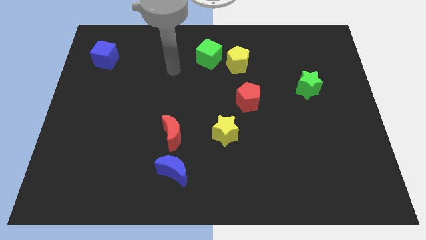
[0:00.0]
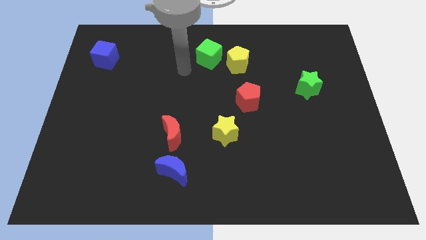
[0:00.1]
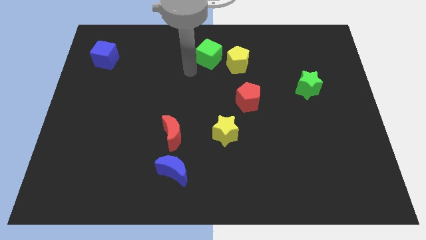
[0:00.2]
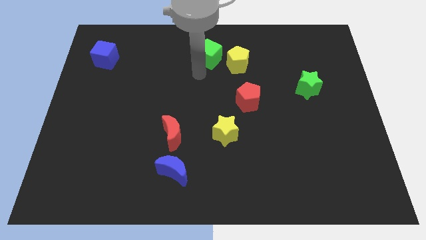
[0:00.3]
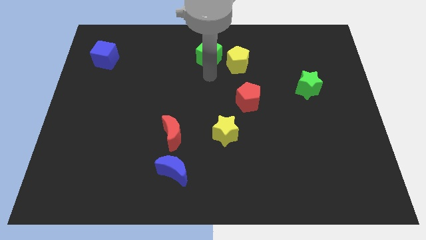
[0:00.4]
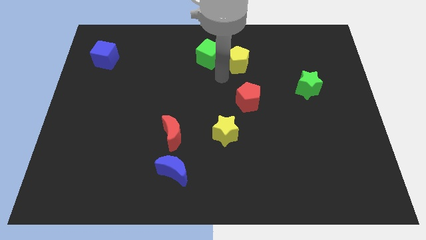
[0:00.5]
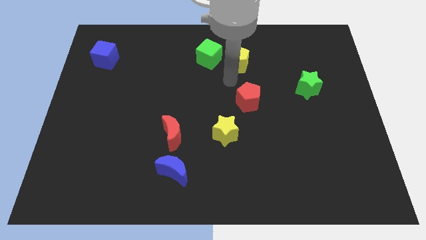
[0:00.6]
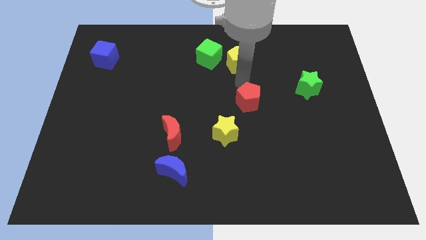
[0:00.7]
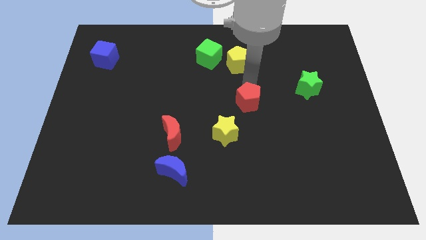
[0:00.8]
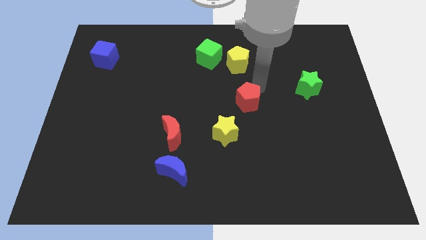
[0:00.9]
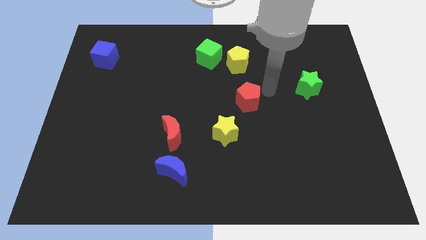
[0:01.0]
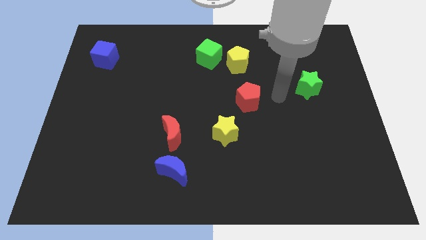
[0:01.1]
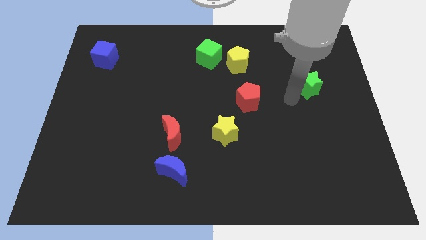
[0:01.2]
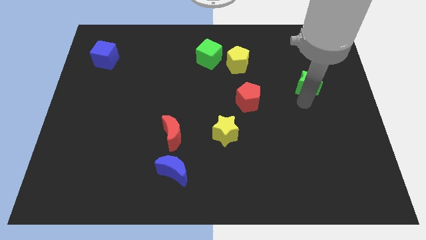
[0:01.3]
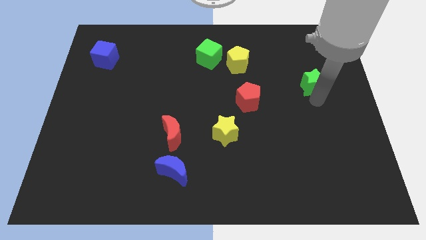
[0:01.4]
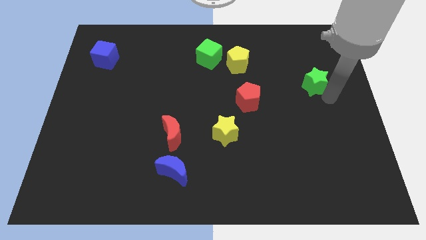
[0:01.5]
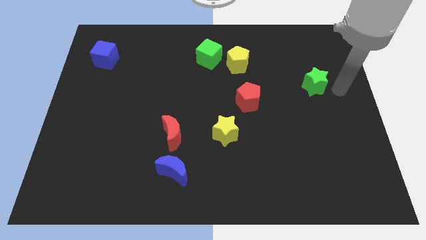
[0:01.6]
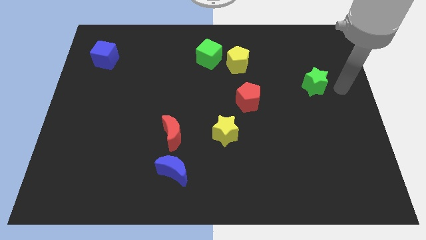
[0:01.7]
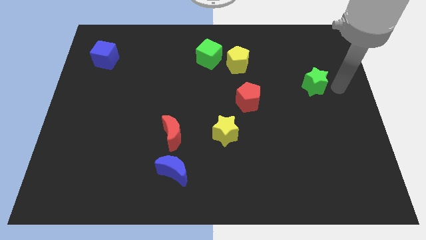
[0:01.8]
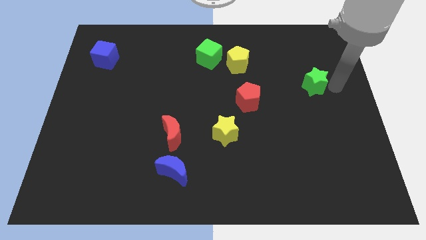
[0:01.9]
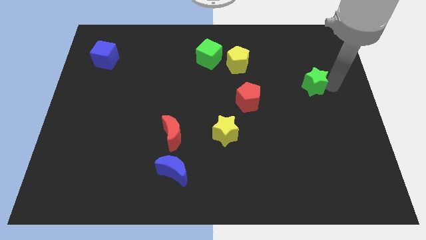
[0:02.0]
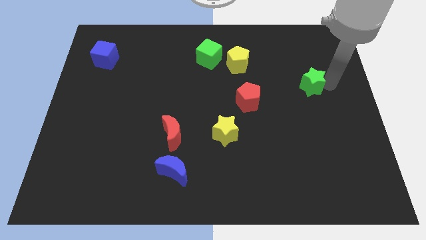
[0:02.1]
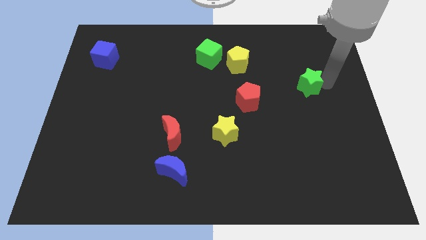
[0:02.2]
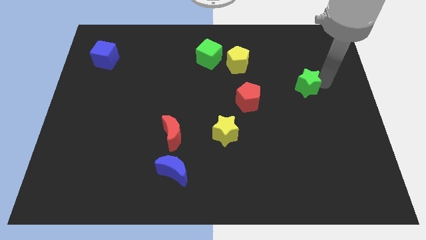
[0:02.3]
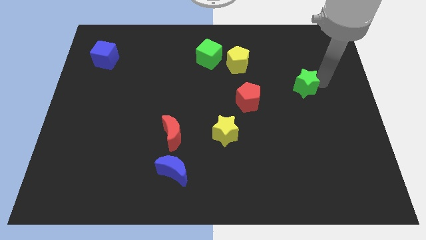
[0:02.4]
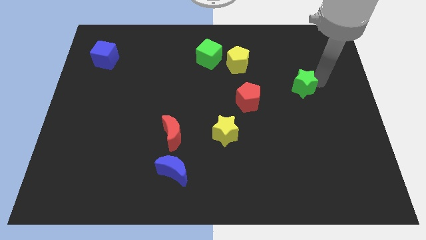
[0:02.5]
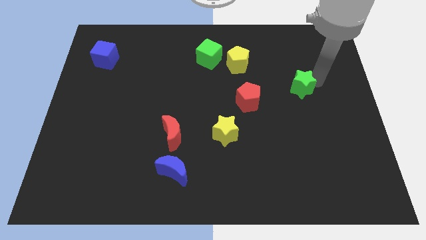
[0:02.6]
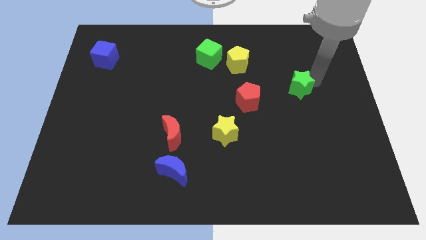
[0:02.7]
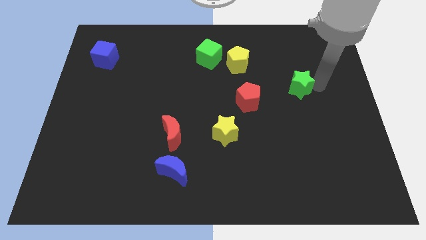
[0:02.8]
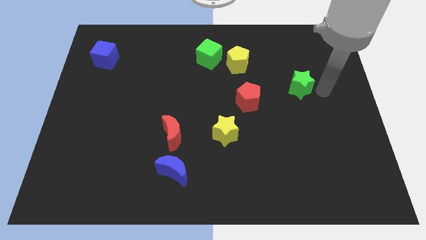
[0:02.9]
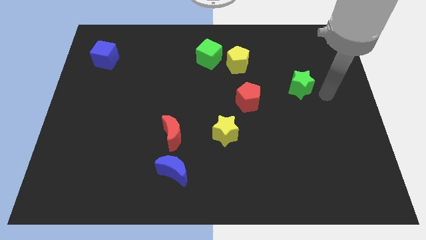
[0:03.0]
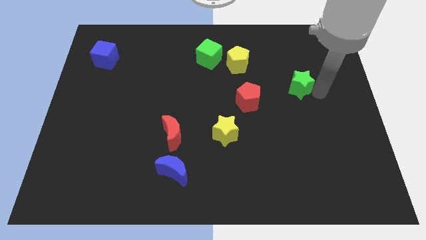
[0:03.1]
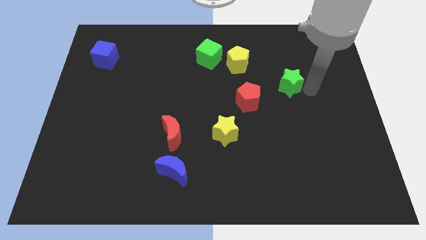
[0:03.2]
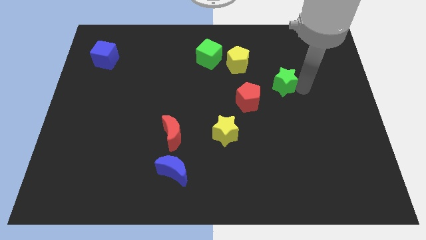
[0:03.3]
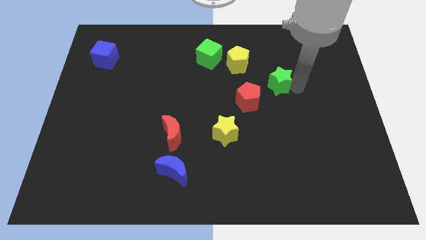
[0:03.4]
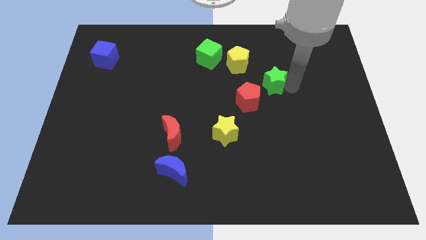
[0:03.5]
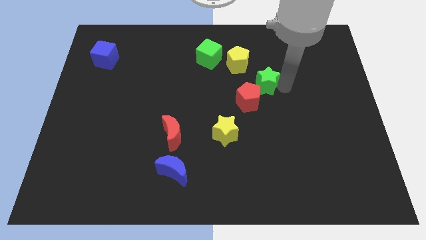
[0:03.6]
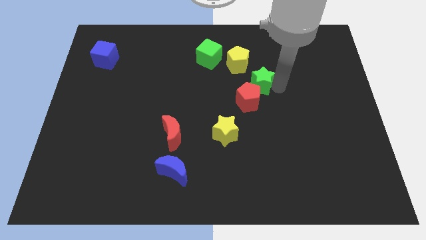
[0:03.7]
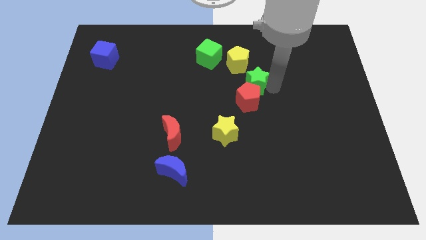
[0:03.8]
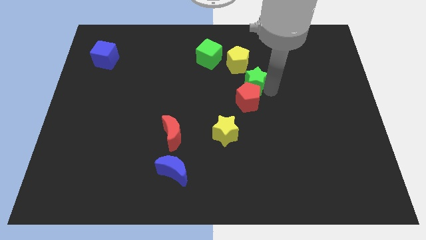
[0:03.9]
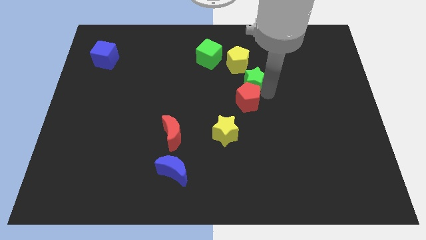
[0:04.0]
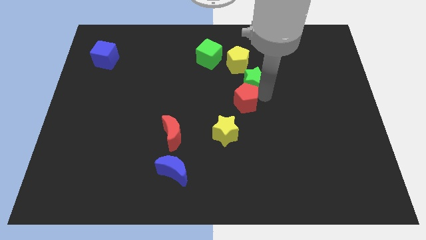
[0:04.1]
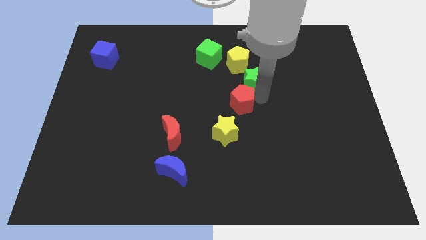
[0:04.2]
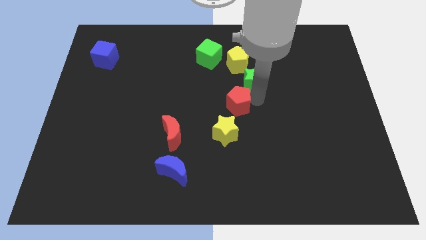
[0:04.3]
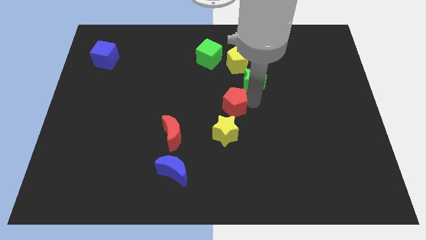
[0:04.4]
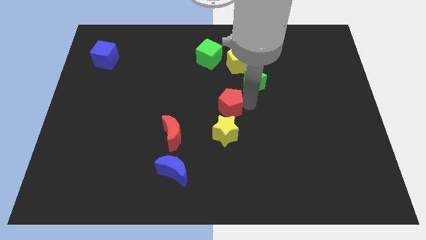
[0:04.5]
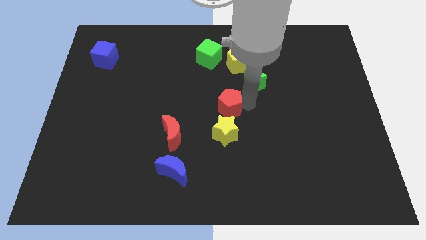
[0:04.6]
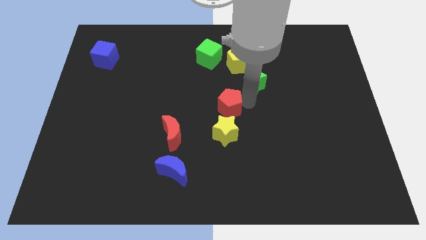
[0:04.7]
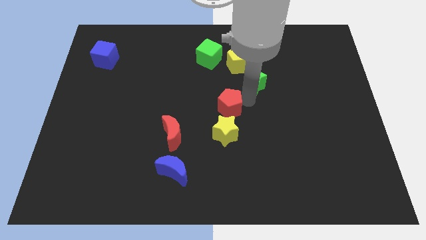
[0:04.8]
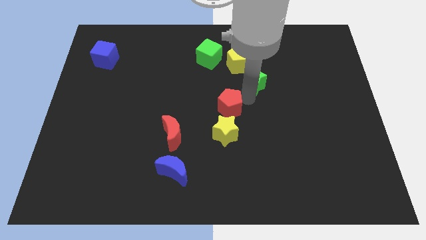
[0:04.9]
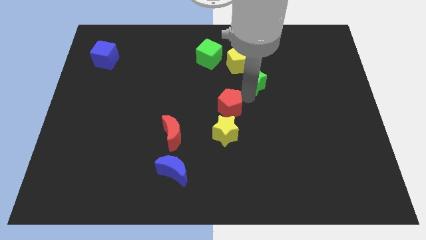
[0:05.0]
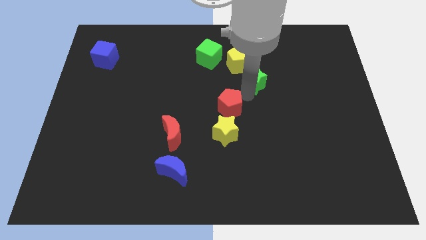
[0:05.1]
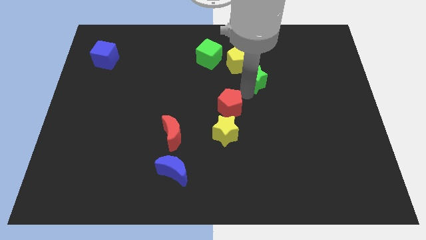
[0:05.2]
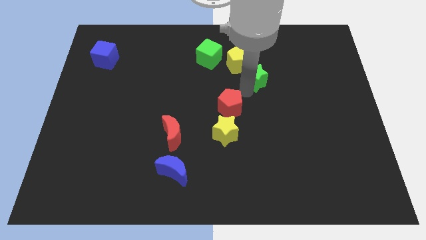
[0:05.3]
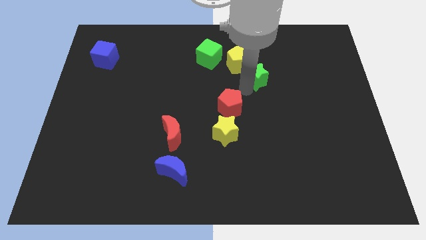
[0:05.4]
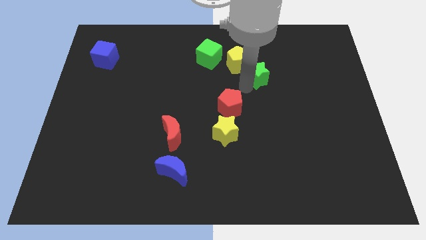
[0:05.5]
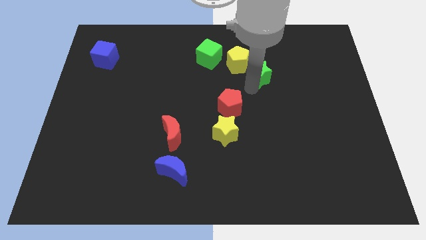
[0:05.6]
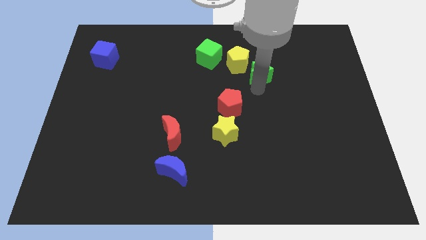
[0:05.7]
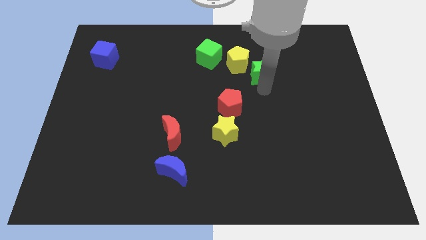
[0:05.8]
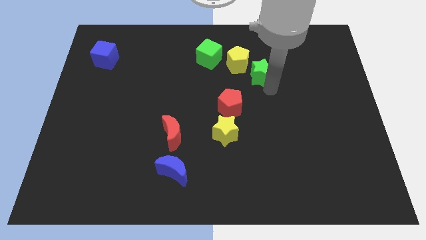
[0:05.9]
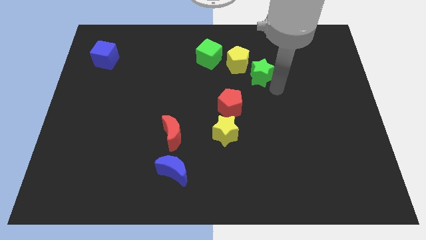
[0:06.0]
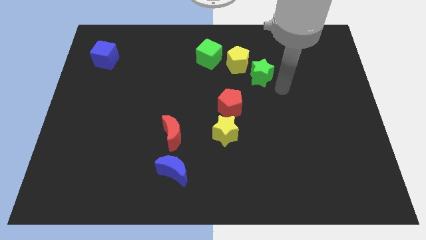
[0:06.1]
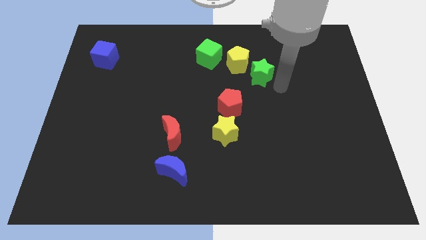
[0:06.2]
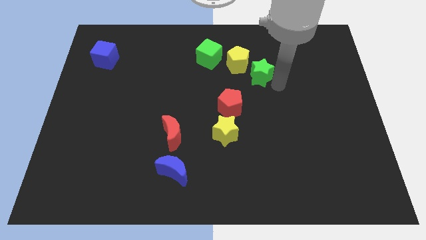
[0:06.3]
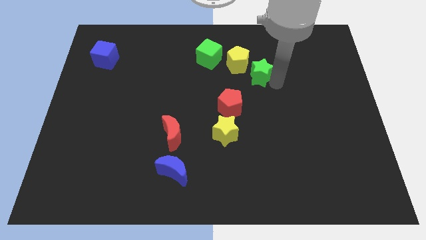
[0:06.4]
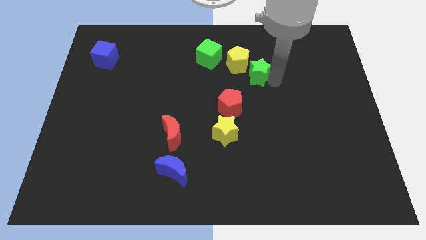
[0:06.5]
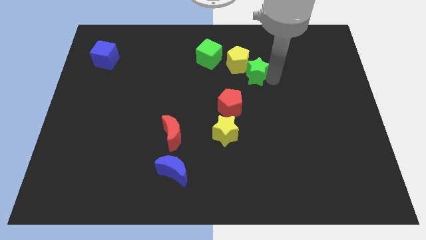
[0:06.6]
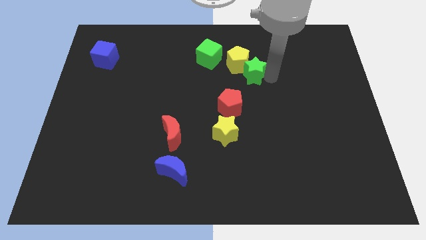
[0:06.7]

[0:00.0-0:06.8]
push the green star close to the yellow pentagon

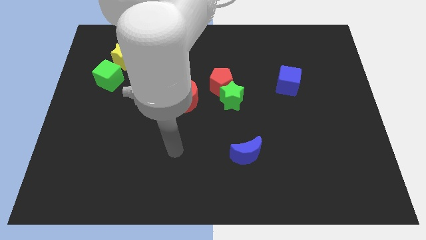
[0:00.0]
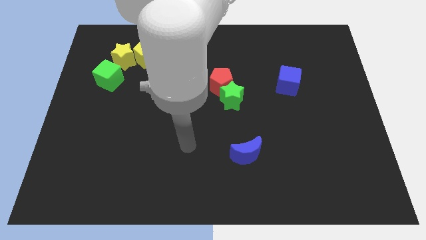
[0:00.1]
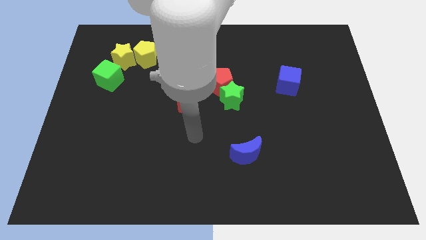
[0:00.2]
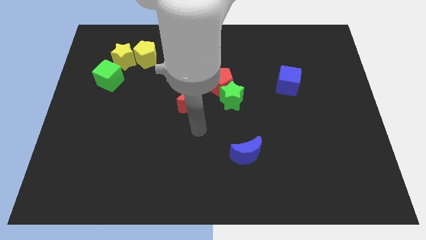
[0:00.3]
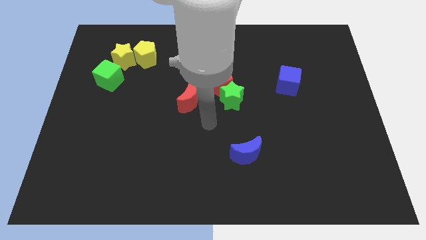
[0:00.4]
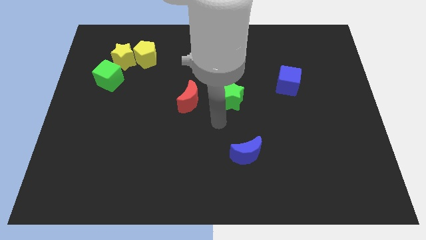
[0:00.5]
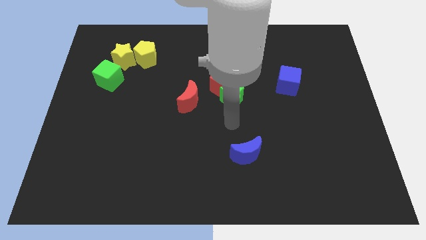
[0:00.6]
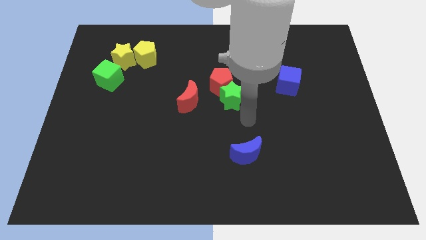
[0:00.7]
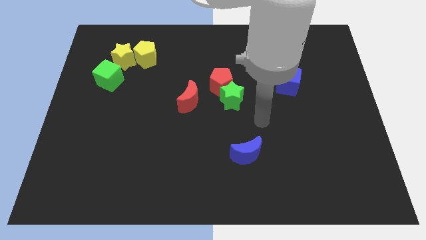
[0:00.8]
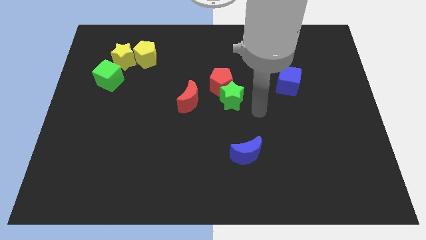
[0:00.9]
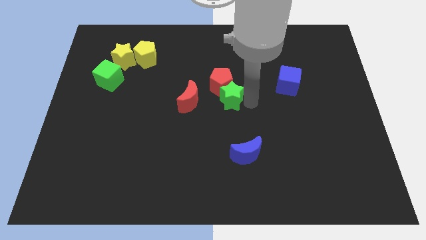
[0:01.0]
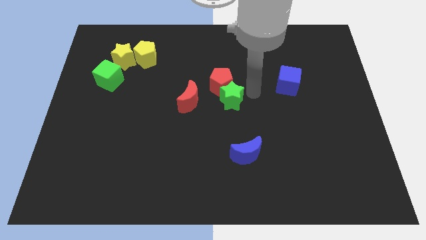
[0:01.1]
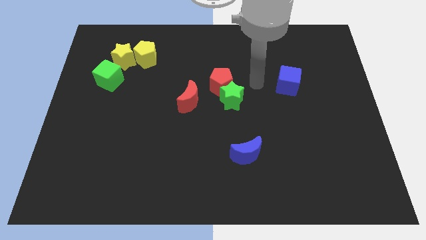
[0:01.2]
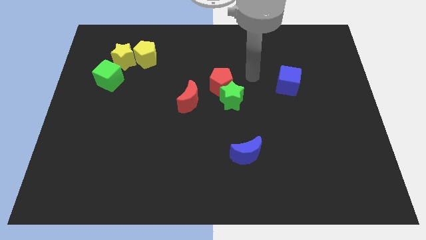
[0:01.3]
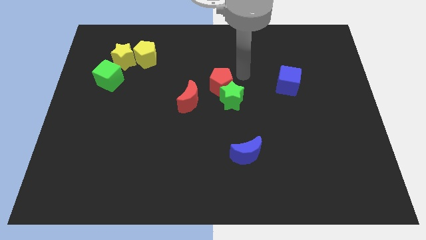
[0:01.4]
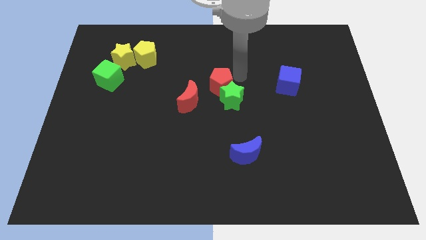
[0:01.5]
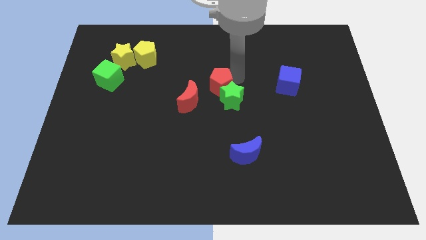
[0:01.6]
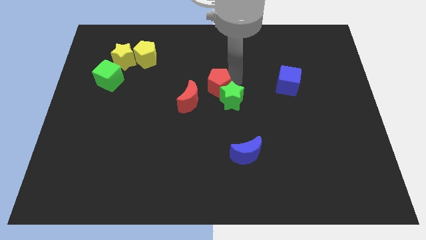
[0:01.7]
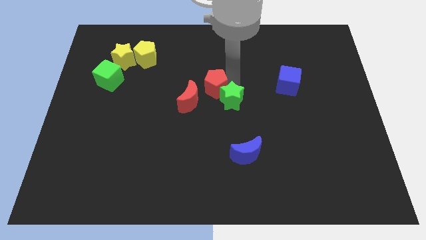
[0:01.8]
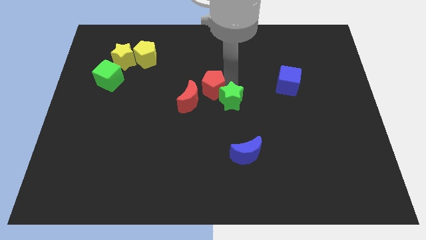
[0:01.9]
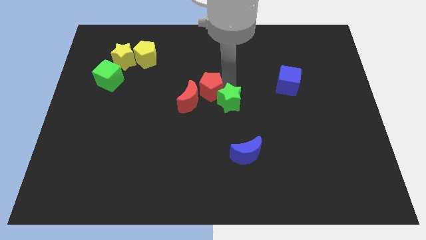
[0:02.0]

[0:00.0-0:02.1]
slide the red pentagon next to the red moon
